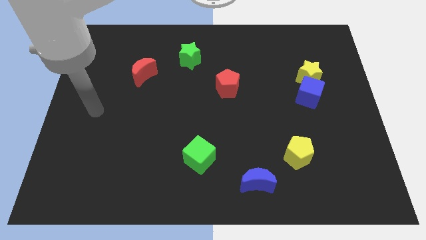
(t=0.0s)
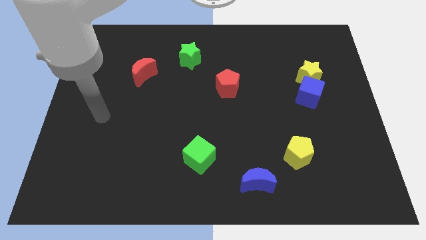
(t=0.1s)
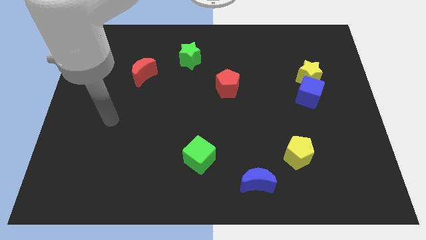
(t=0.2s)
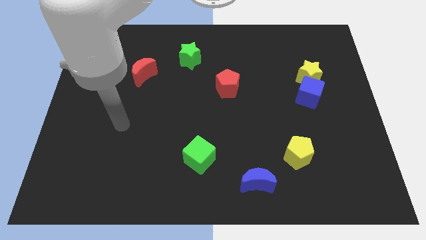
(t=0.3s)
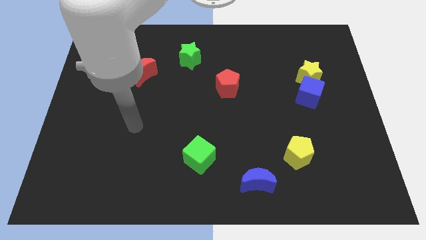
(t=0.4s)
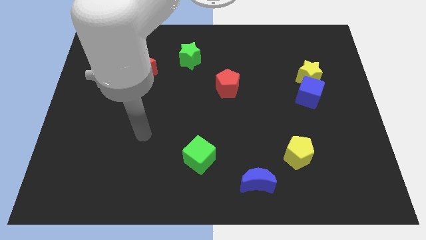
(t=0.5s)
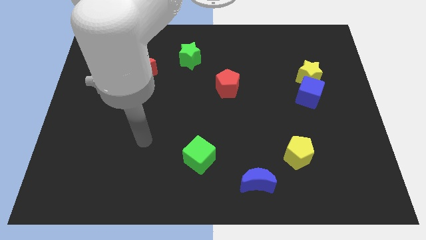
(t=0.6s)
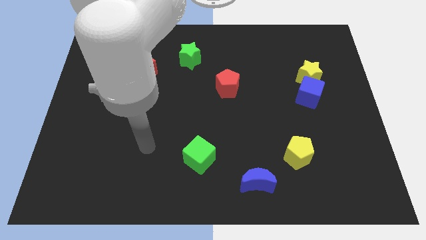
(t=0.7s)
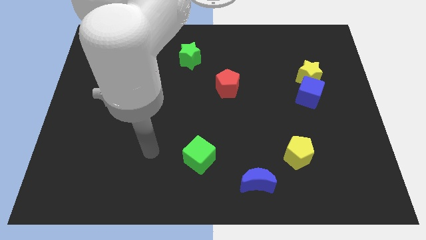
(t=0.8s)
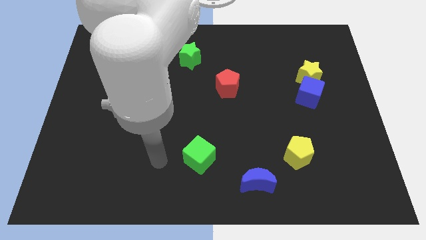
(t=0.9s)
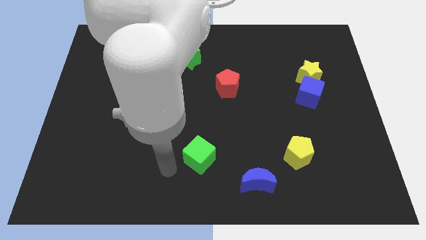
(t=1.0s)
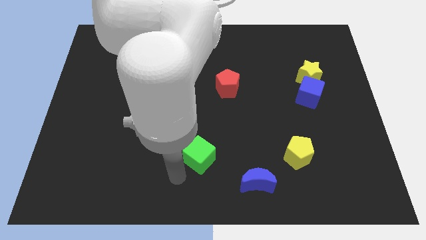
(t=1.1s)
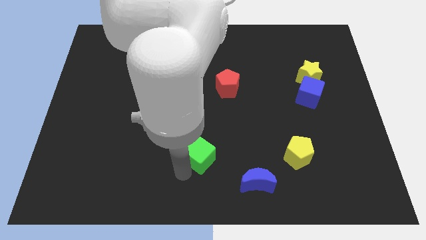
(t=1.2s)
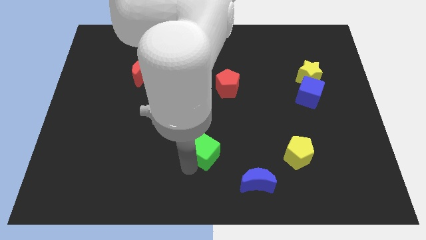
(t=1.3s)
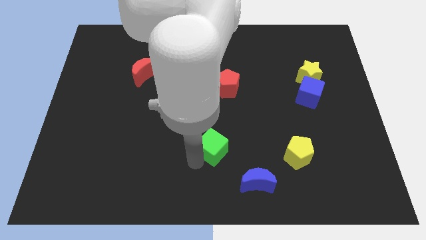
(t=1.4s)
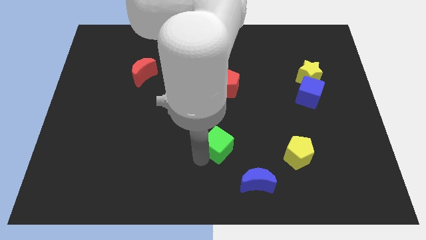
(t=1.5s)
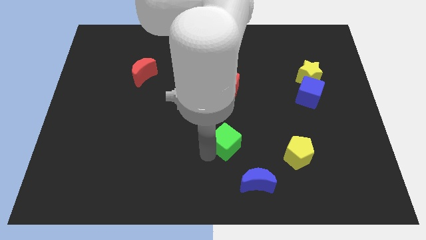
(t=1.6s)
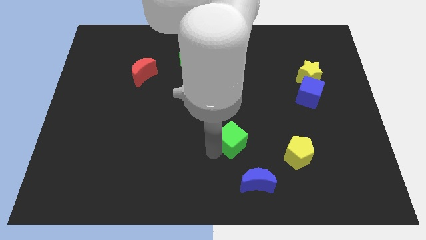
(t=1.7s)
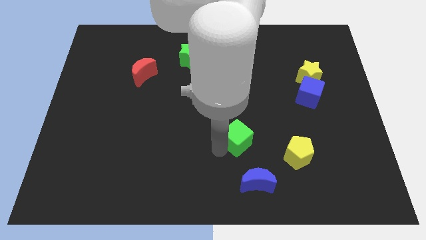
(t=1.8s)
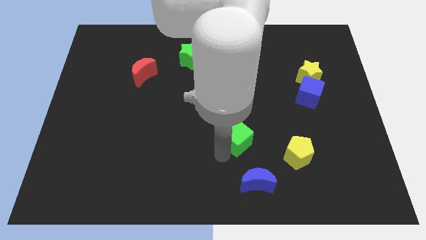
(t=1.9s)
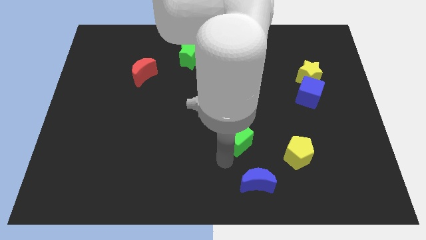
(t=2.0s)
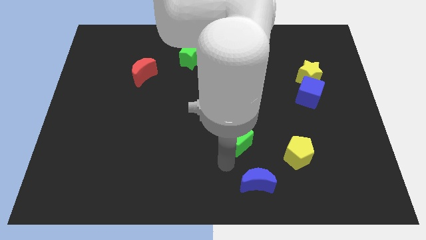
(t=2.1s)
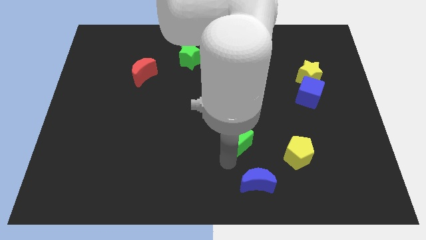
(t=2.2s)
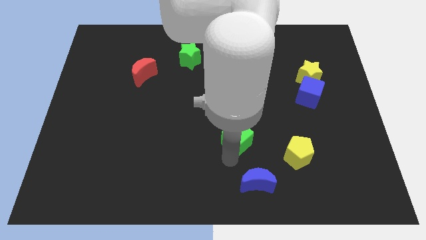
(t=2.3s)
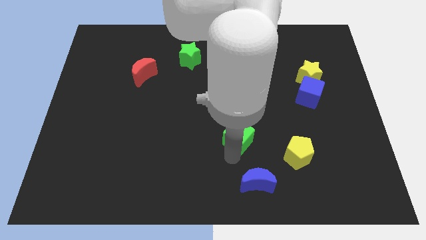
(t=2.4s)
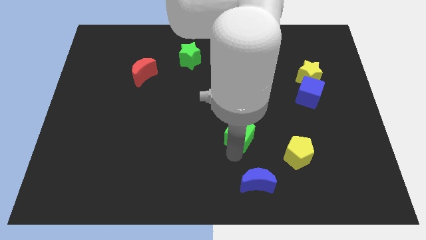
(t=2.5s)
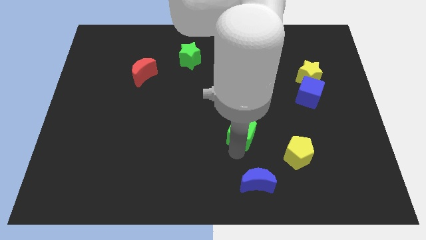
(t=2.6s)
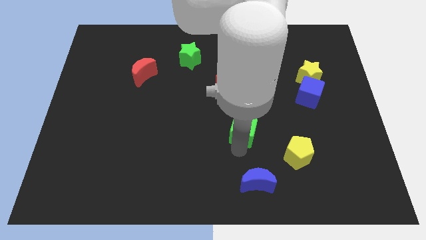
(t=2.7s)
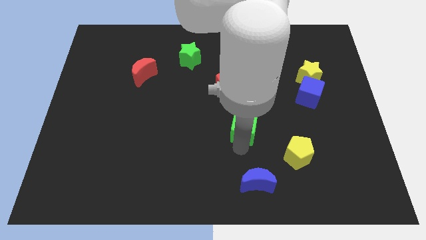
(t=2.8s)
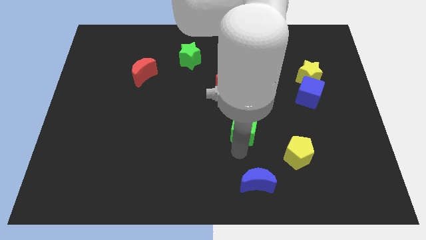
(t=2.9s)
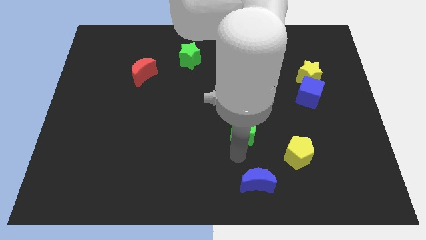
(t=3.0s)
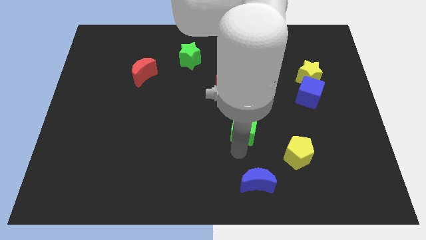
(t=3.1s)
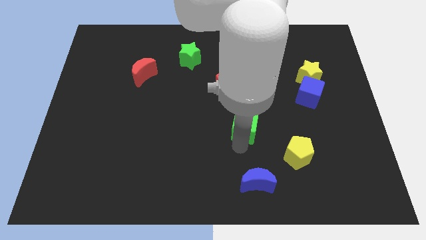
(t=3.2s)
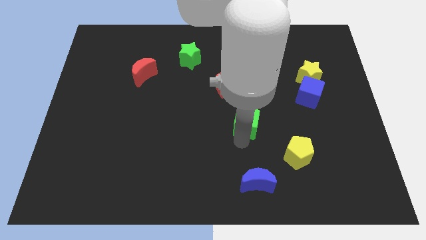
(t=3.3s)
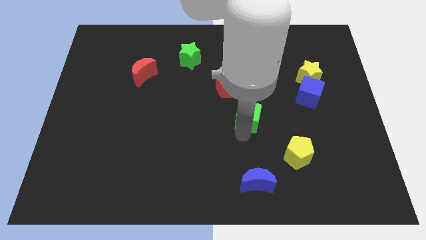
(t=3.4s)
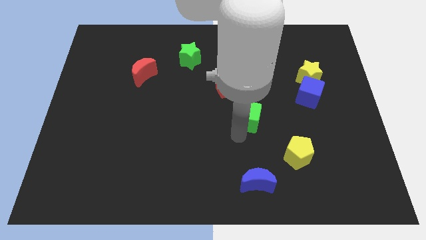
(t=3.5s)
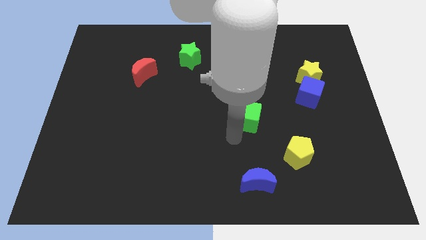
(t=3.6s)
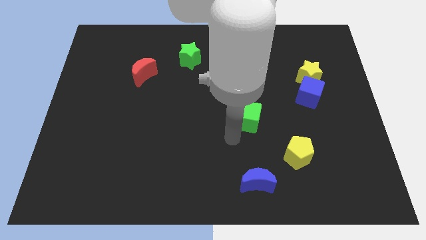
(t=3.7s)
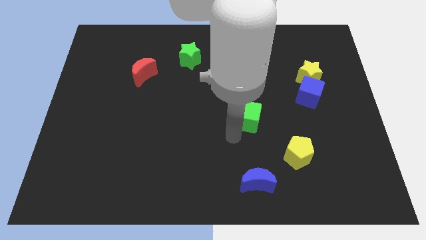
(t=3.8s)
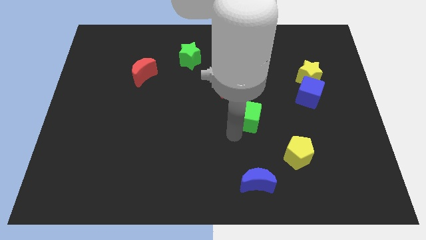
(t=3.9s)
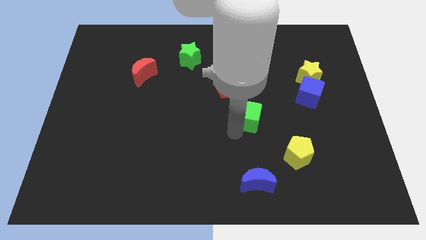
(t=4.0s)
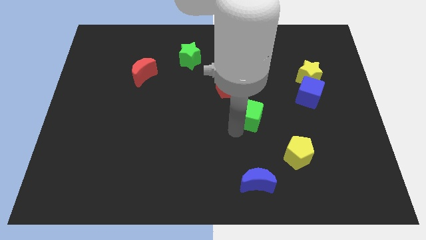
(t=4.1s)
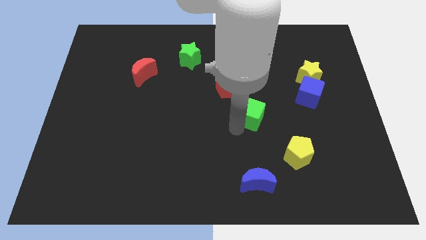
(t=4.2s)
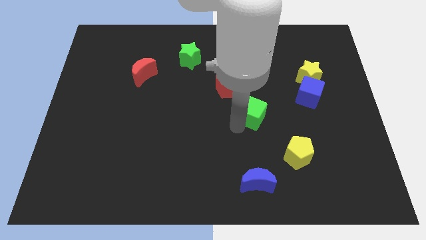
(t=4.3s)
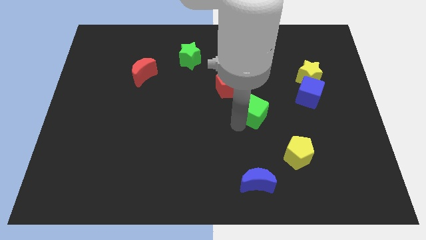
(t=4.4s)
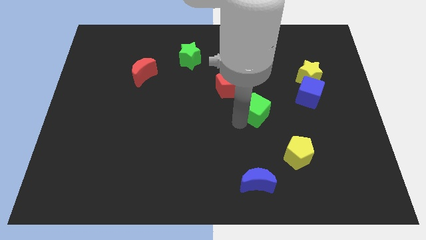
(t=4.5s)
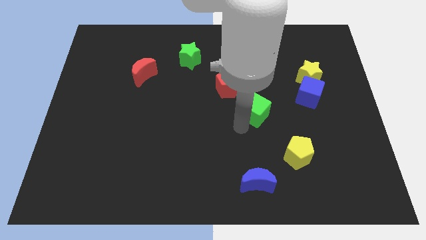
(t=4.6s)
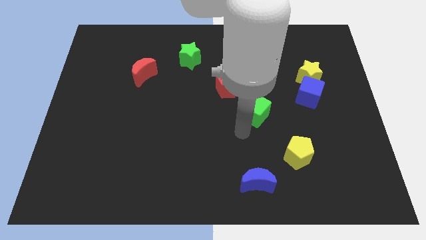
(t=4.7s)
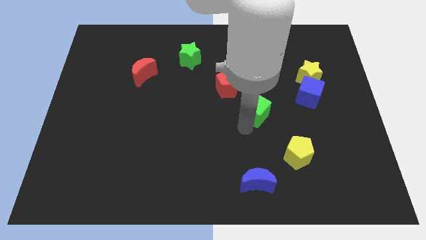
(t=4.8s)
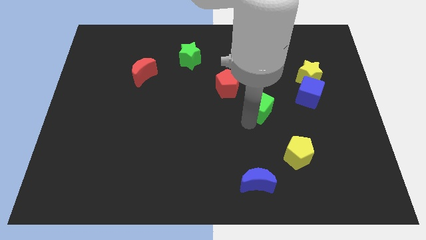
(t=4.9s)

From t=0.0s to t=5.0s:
push the green cube just left of the blue cube

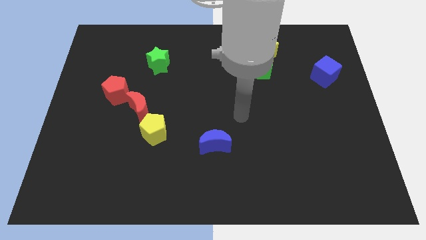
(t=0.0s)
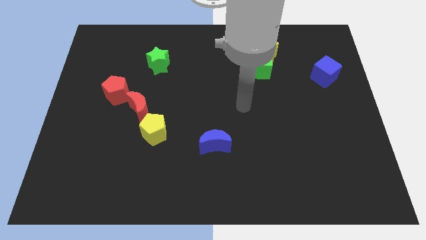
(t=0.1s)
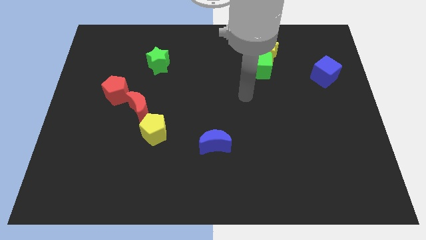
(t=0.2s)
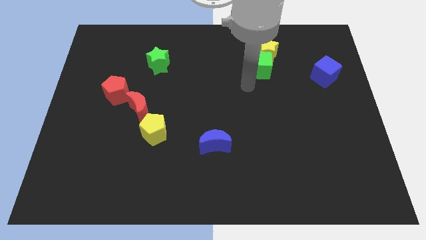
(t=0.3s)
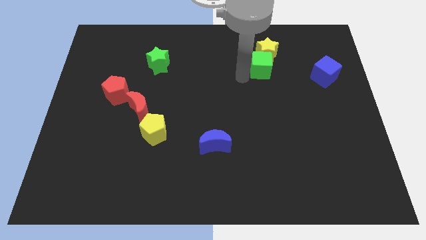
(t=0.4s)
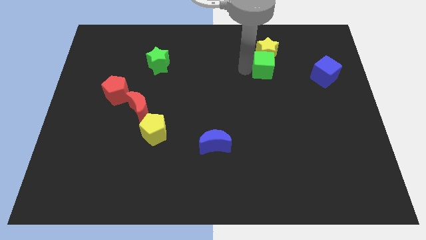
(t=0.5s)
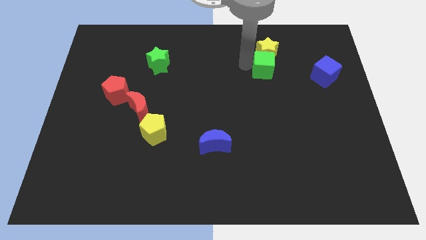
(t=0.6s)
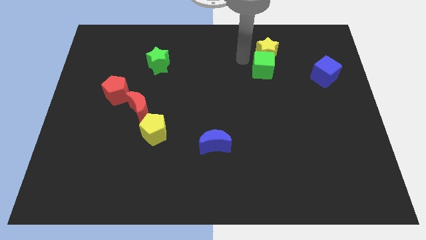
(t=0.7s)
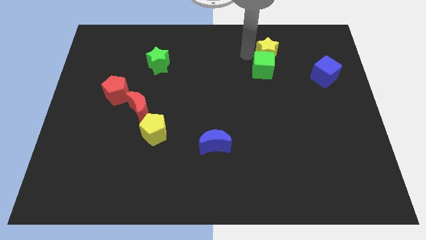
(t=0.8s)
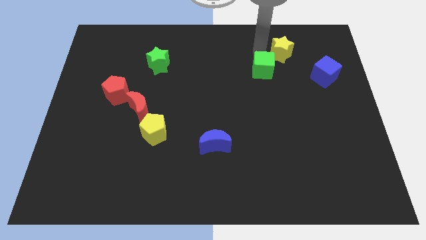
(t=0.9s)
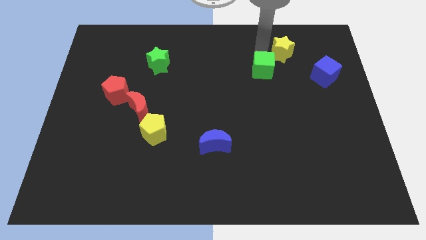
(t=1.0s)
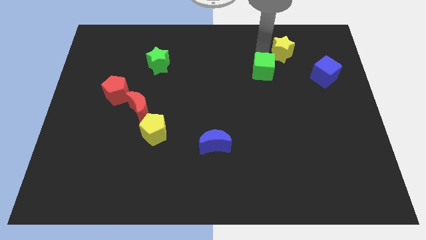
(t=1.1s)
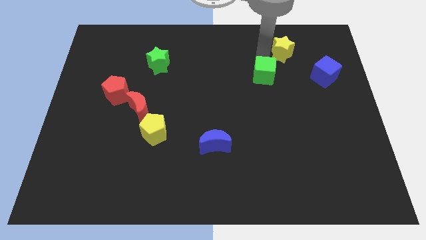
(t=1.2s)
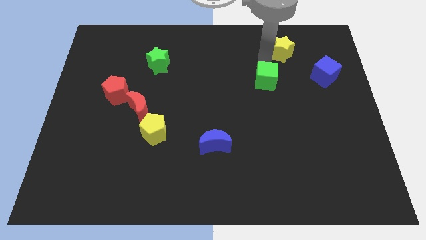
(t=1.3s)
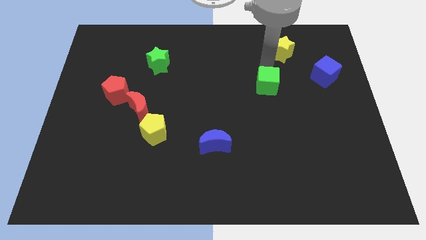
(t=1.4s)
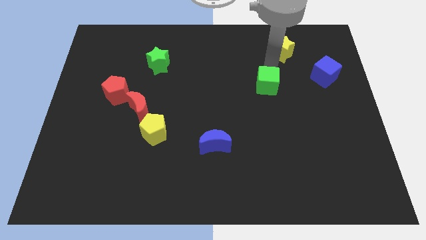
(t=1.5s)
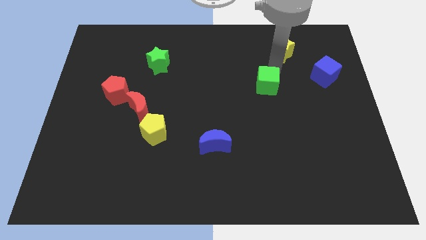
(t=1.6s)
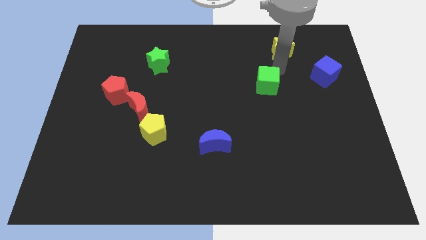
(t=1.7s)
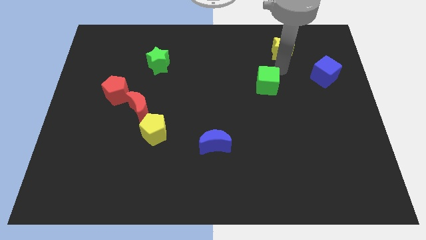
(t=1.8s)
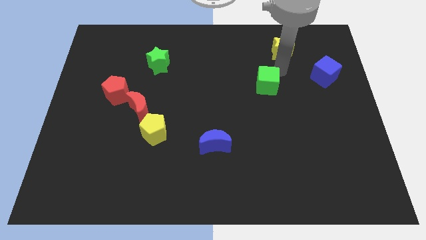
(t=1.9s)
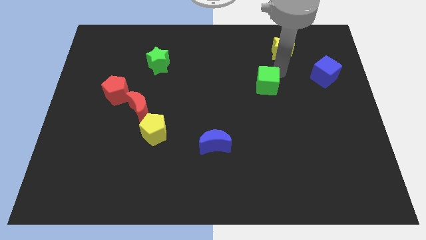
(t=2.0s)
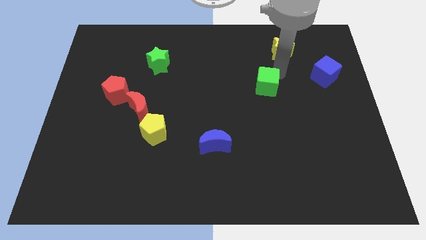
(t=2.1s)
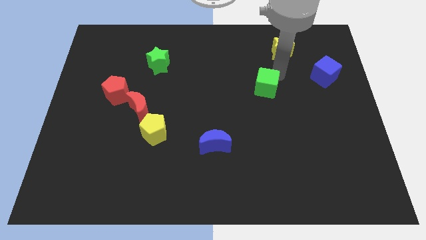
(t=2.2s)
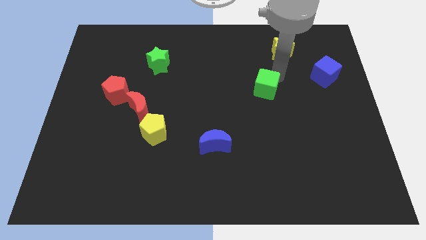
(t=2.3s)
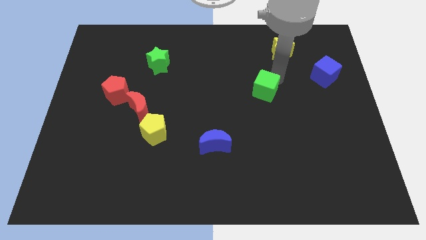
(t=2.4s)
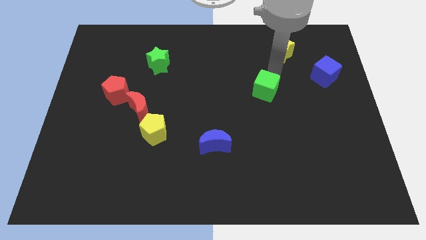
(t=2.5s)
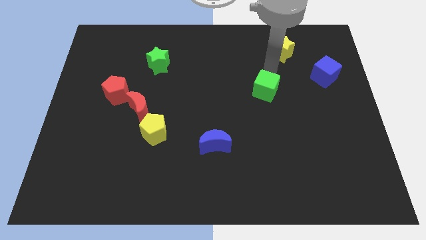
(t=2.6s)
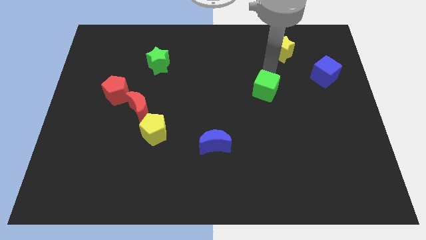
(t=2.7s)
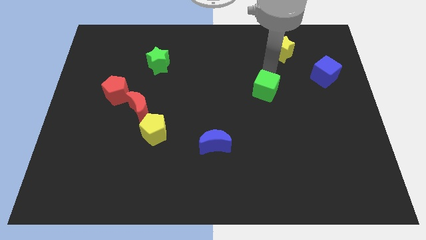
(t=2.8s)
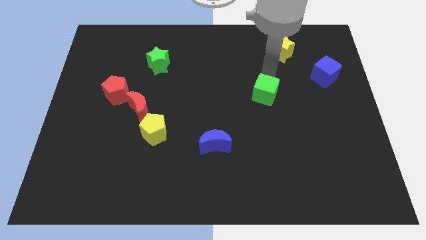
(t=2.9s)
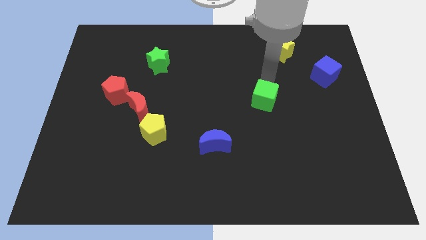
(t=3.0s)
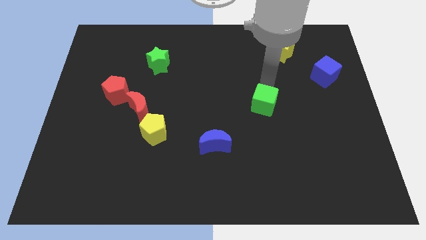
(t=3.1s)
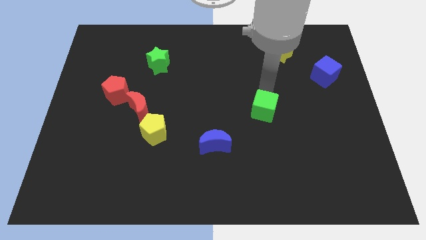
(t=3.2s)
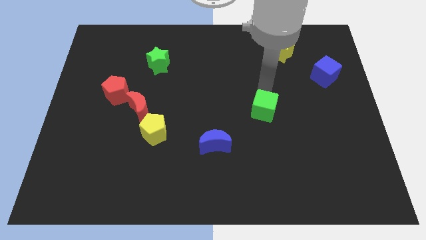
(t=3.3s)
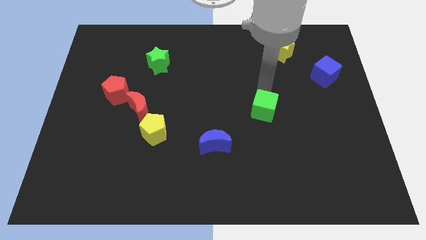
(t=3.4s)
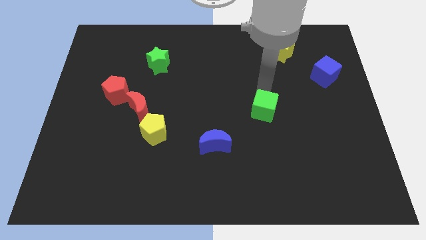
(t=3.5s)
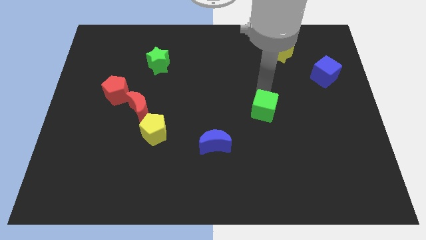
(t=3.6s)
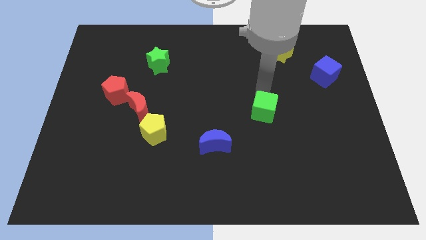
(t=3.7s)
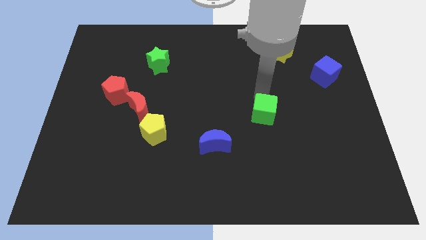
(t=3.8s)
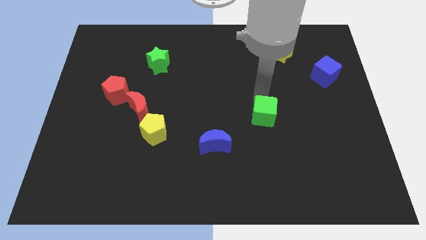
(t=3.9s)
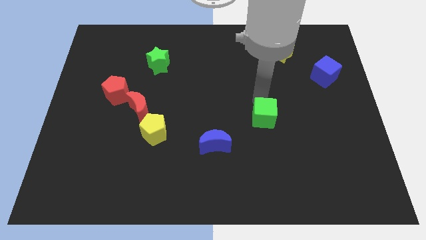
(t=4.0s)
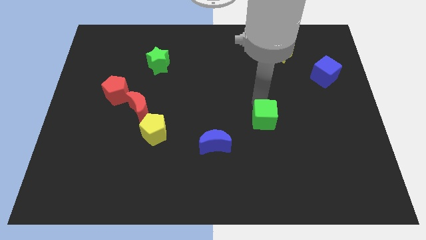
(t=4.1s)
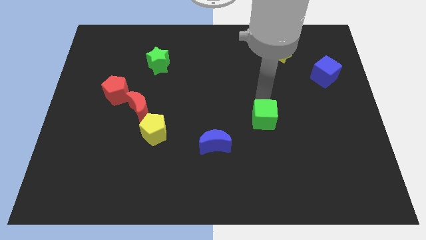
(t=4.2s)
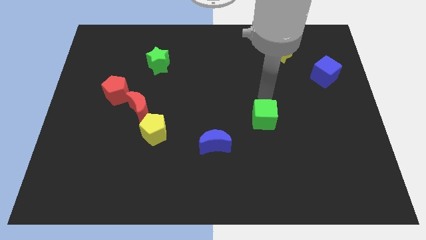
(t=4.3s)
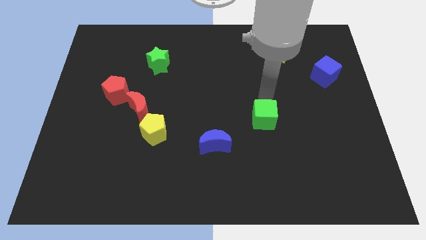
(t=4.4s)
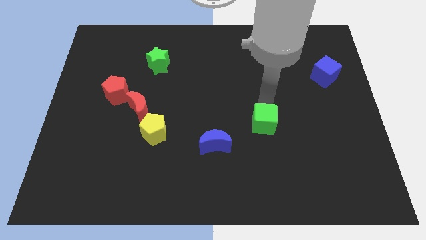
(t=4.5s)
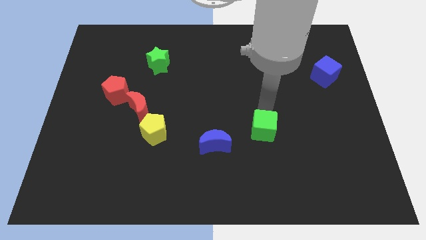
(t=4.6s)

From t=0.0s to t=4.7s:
slide the green cube to the right of the blue moon
